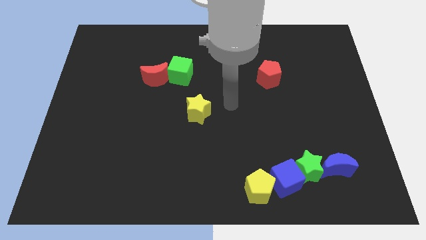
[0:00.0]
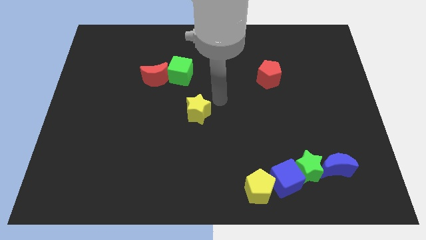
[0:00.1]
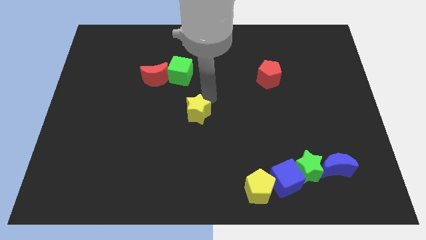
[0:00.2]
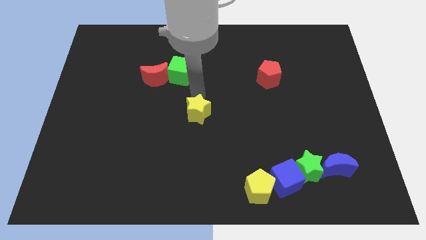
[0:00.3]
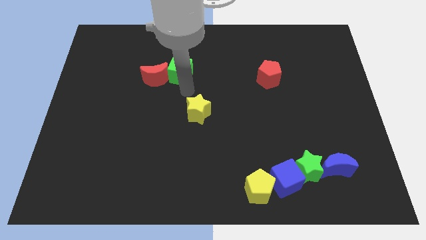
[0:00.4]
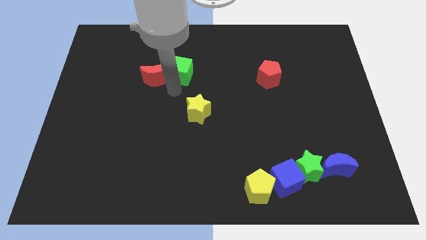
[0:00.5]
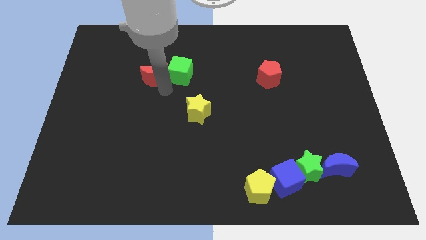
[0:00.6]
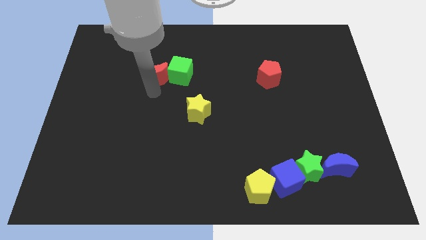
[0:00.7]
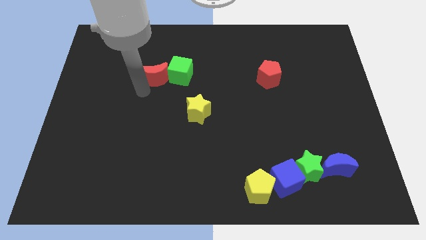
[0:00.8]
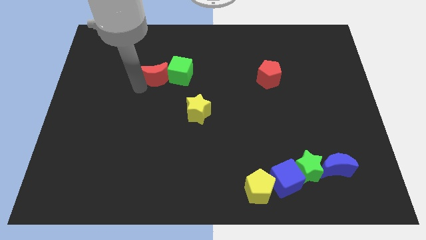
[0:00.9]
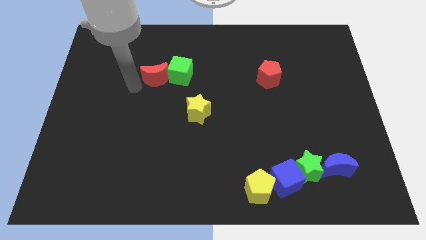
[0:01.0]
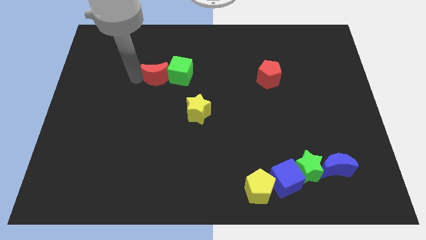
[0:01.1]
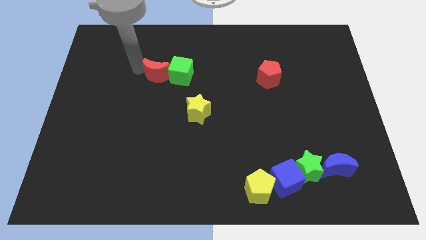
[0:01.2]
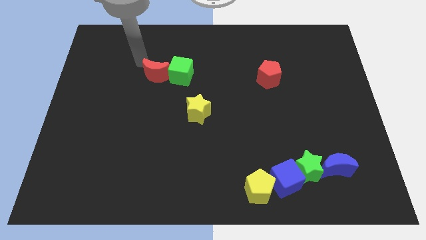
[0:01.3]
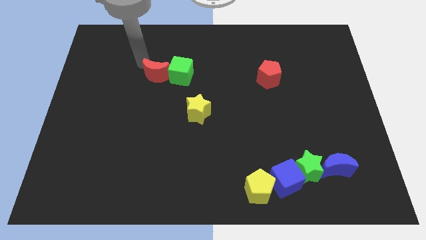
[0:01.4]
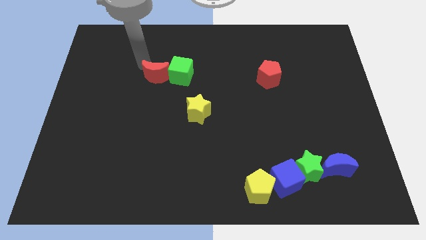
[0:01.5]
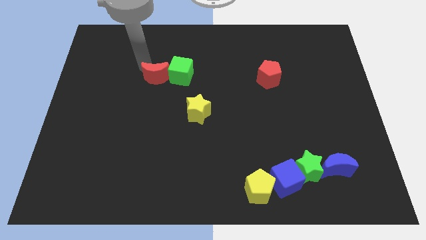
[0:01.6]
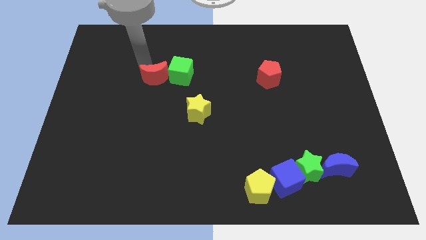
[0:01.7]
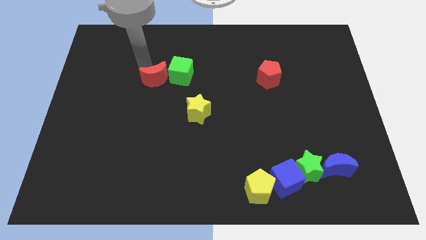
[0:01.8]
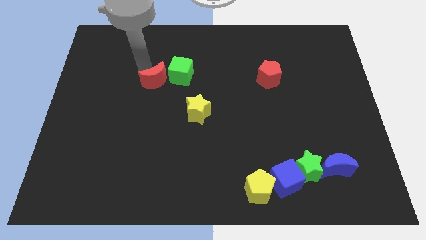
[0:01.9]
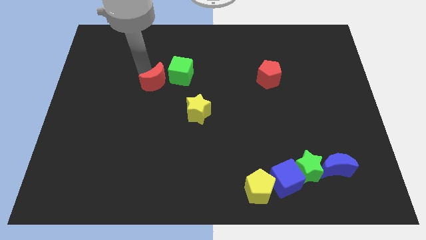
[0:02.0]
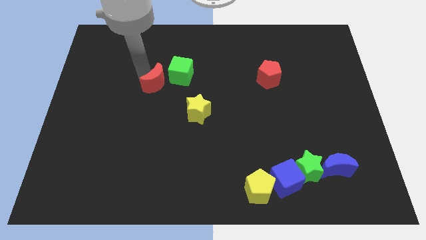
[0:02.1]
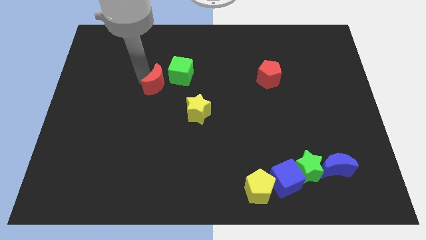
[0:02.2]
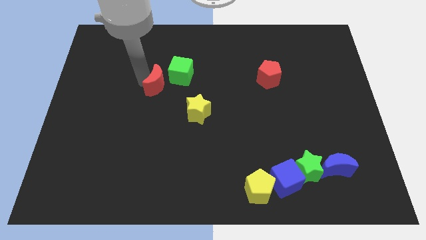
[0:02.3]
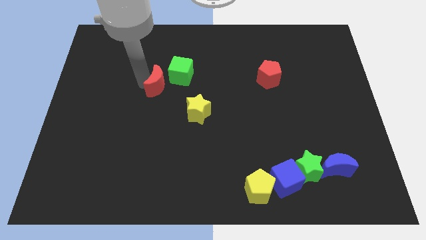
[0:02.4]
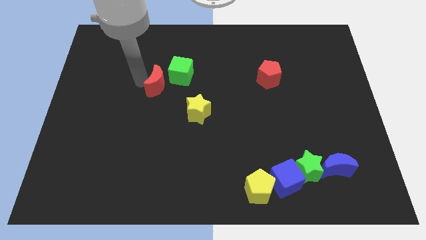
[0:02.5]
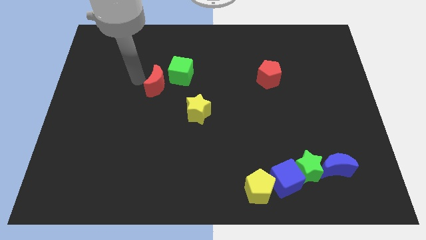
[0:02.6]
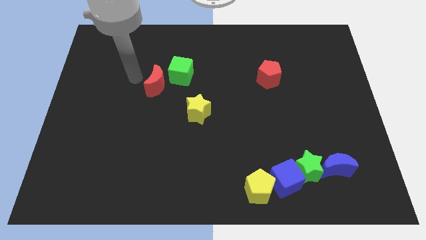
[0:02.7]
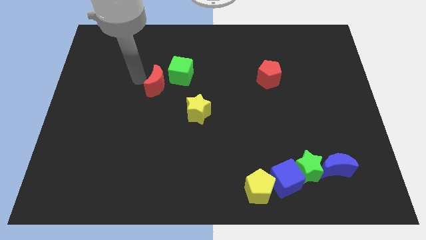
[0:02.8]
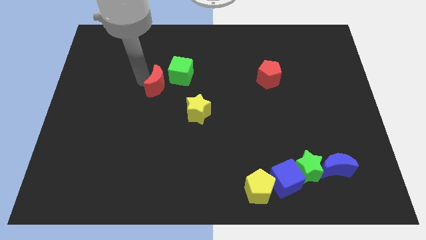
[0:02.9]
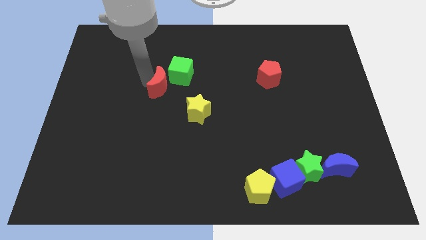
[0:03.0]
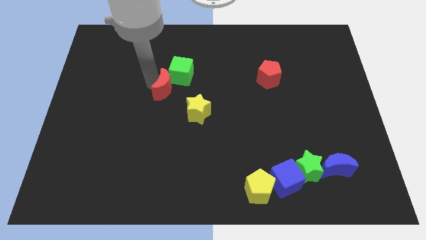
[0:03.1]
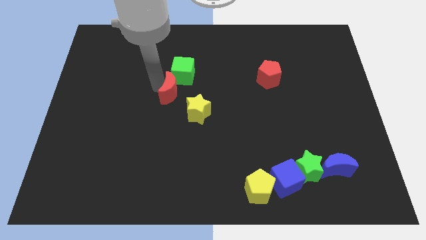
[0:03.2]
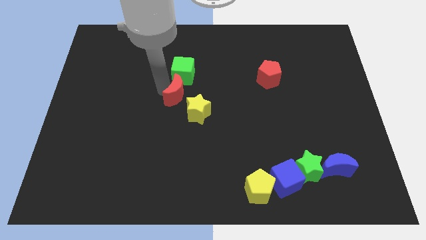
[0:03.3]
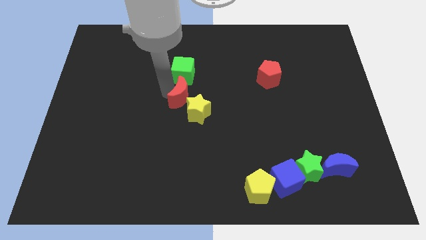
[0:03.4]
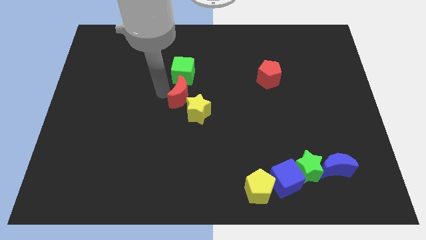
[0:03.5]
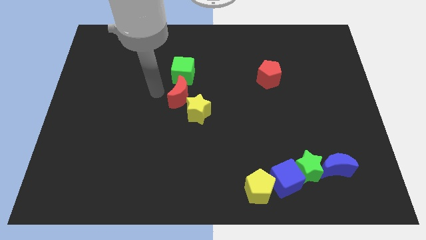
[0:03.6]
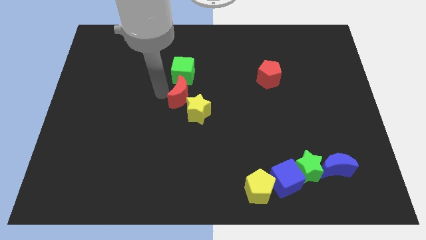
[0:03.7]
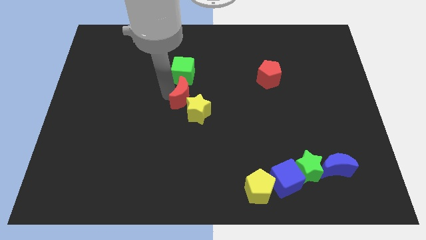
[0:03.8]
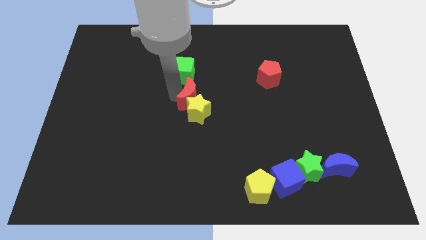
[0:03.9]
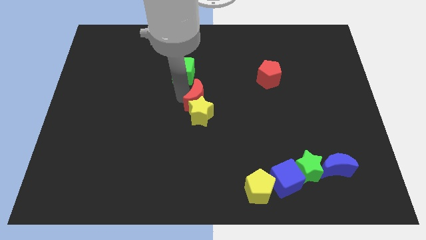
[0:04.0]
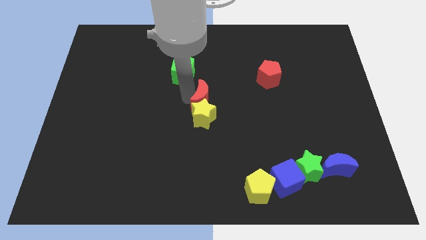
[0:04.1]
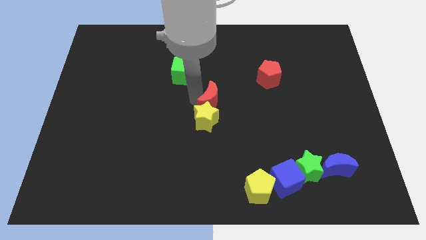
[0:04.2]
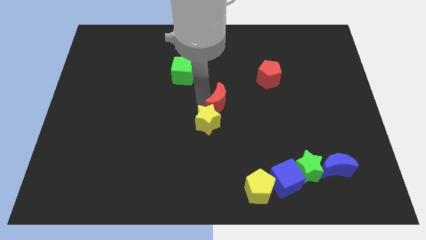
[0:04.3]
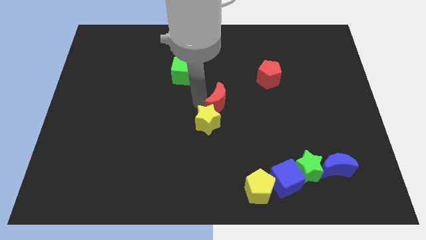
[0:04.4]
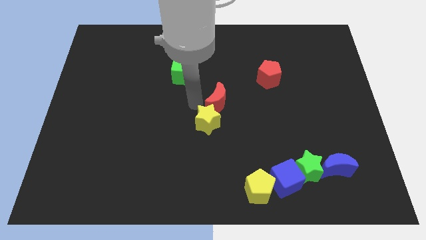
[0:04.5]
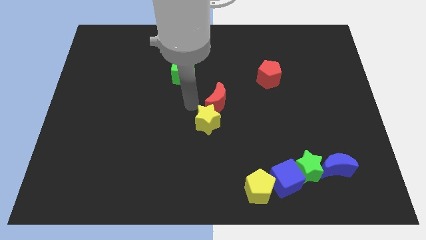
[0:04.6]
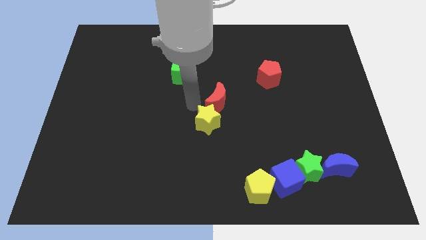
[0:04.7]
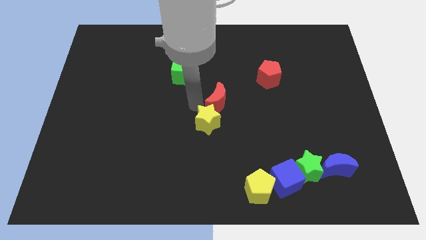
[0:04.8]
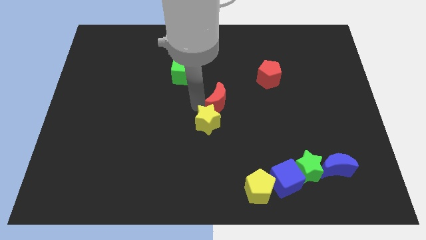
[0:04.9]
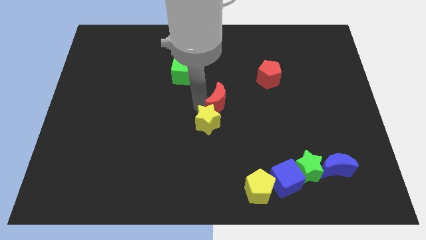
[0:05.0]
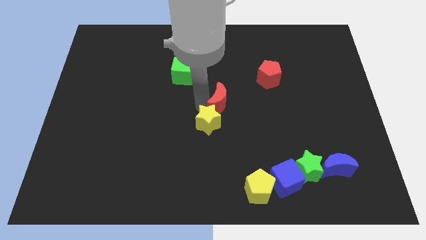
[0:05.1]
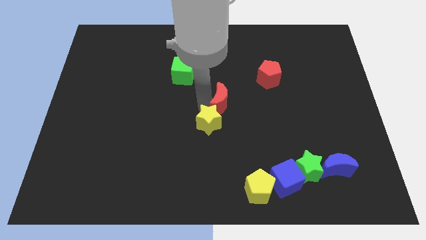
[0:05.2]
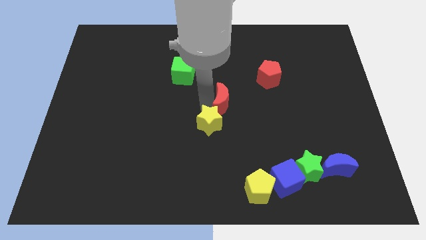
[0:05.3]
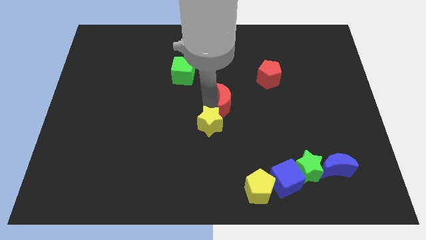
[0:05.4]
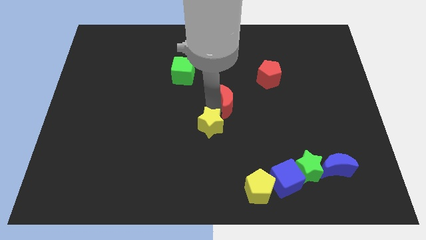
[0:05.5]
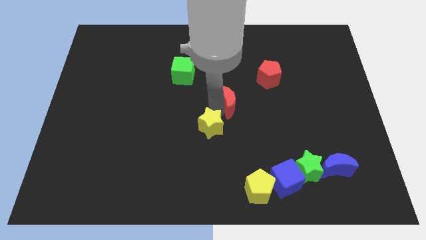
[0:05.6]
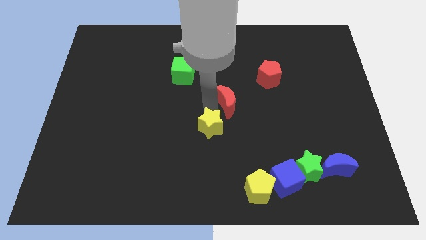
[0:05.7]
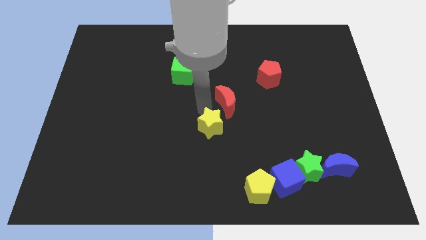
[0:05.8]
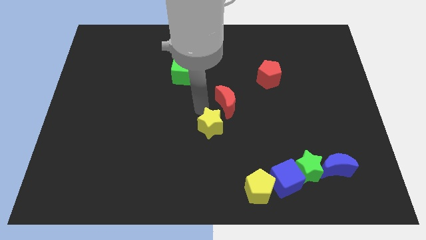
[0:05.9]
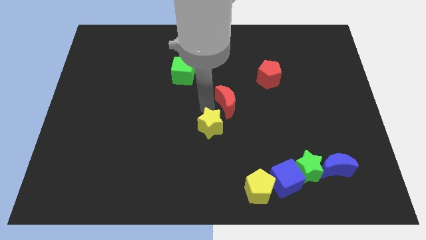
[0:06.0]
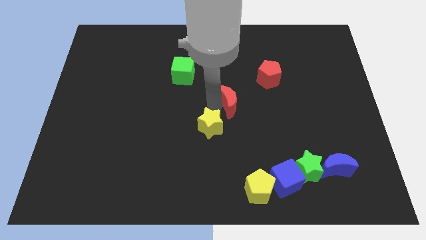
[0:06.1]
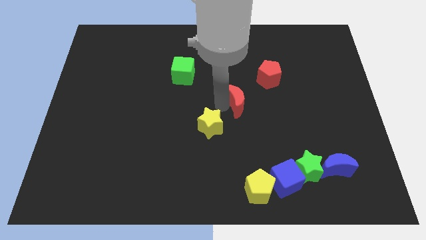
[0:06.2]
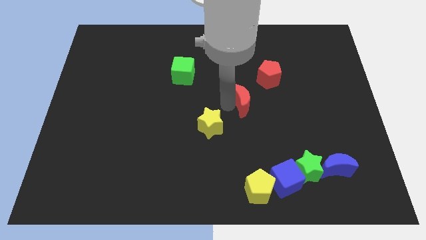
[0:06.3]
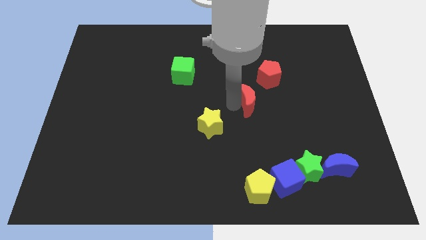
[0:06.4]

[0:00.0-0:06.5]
push the red moon right

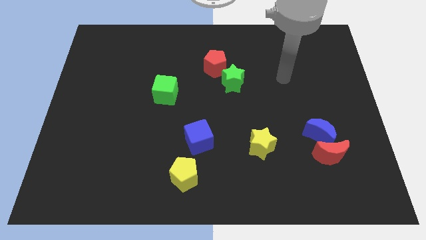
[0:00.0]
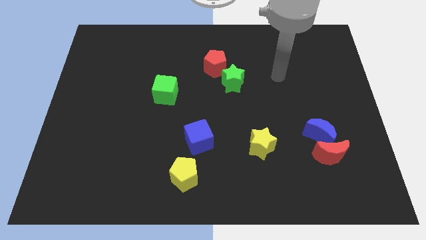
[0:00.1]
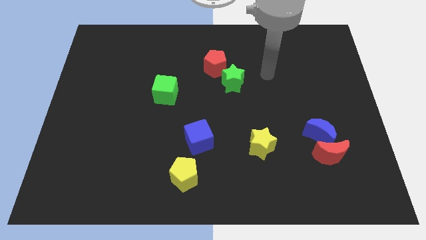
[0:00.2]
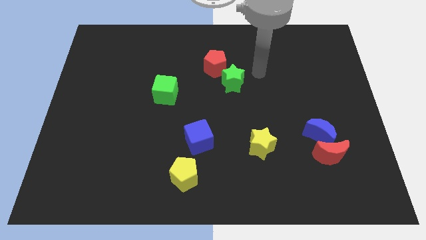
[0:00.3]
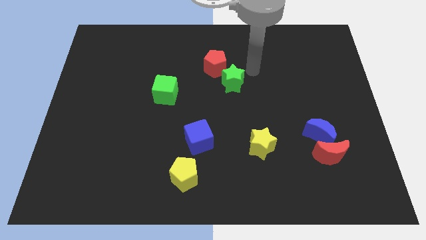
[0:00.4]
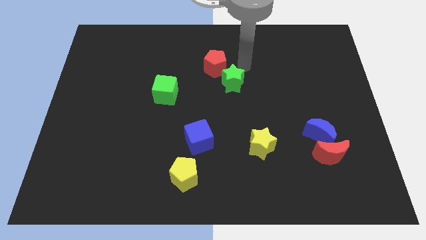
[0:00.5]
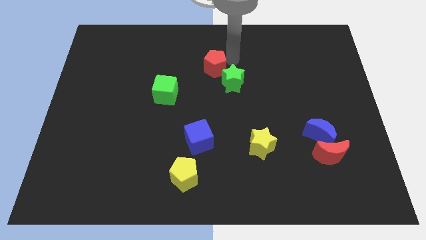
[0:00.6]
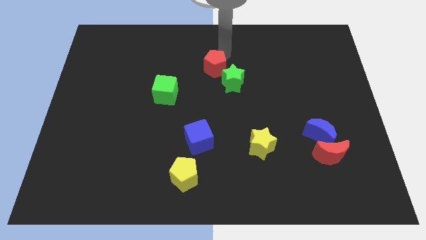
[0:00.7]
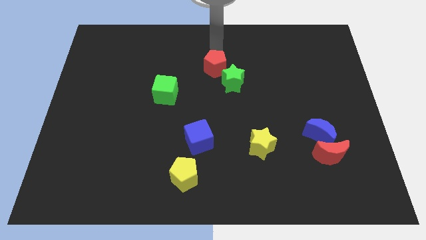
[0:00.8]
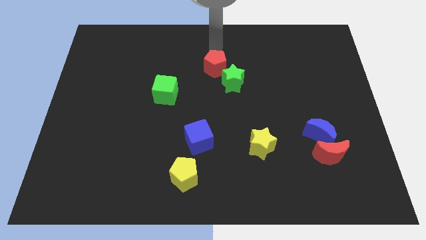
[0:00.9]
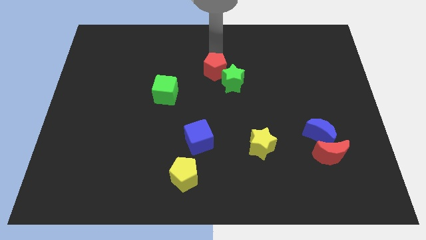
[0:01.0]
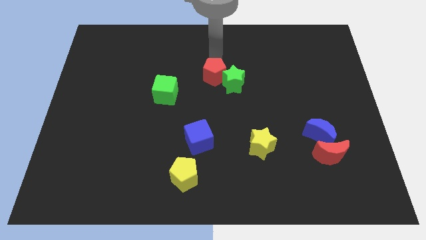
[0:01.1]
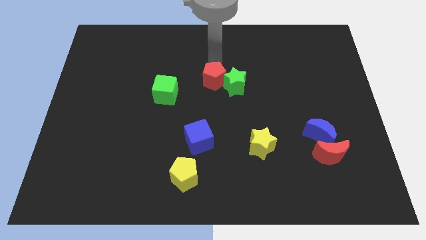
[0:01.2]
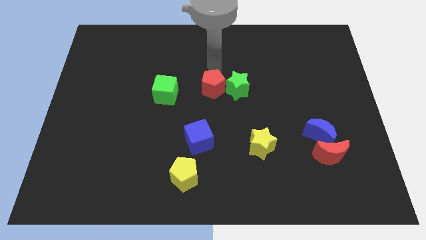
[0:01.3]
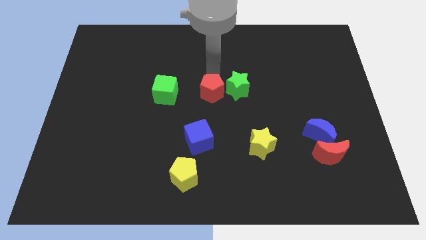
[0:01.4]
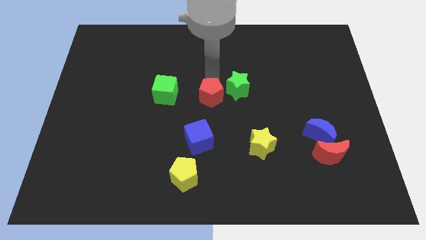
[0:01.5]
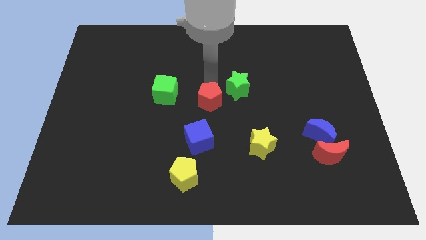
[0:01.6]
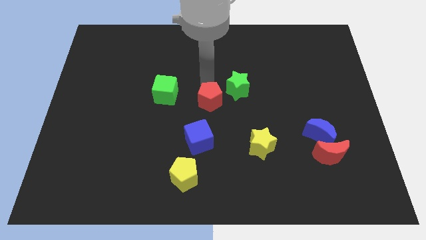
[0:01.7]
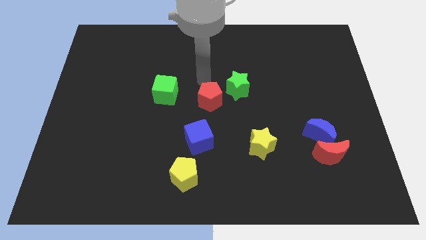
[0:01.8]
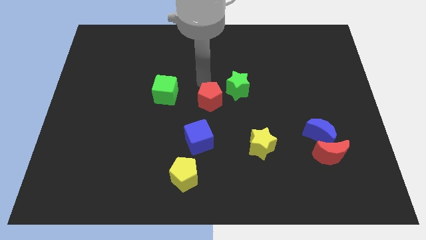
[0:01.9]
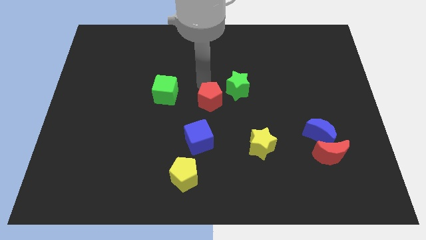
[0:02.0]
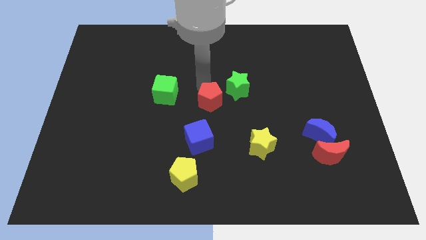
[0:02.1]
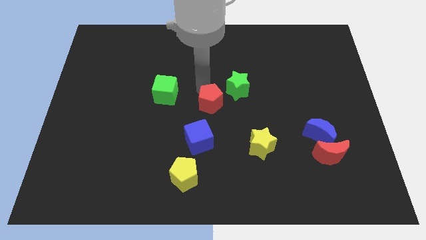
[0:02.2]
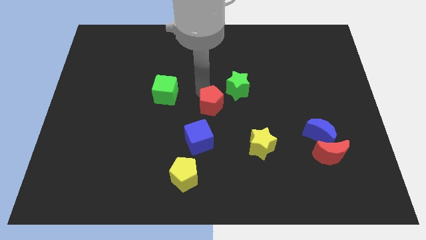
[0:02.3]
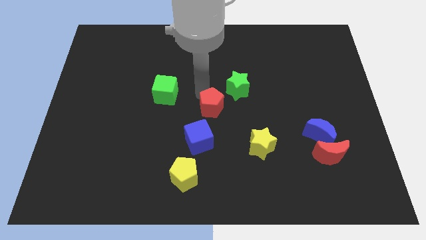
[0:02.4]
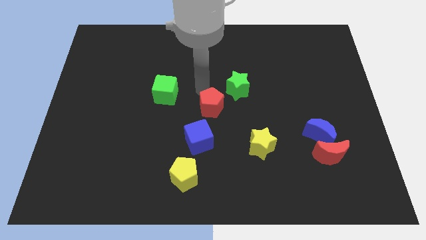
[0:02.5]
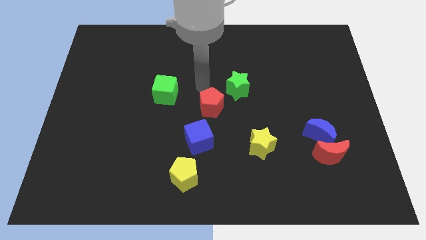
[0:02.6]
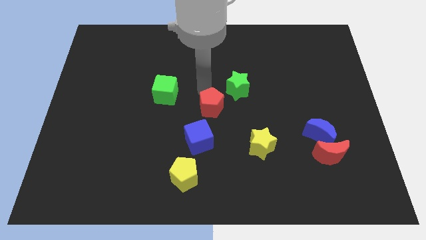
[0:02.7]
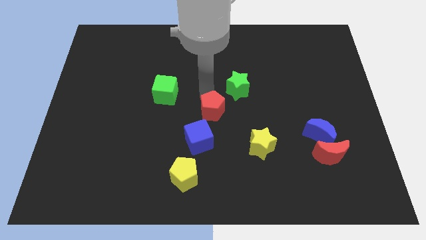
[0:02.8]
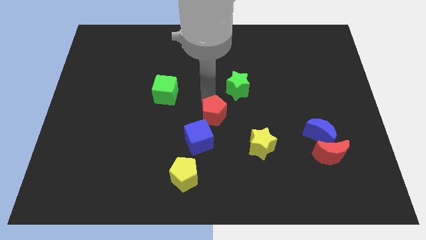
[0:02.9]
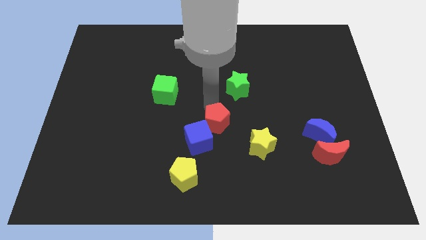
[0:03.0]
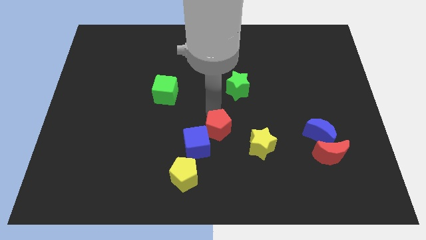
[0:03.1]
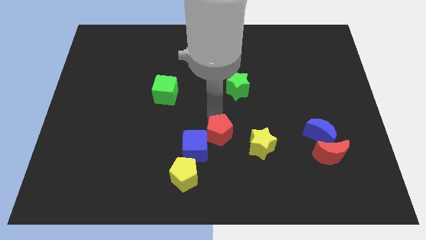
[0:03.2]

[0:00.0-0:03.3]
move the red pentagon downwards
